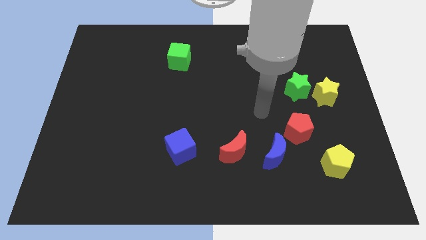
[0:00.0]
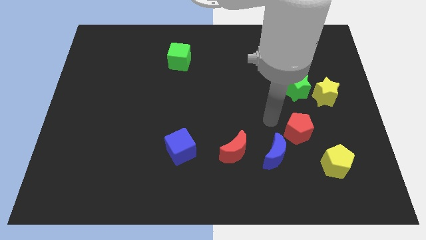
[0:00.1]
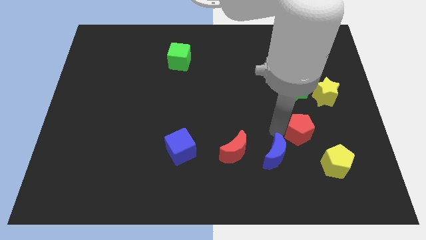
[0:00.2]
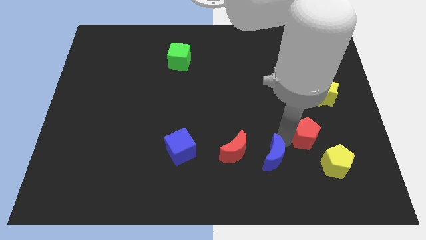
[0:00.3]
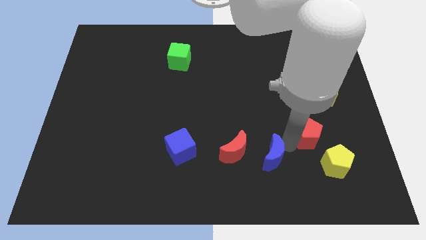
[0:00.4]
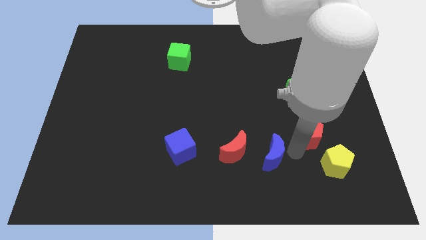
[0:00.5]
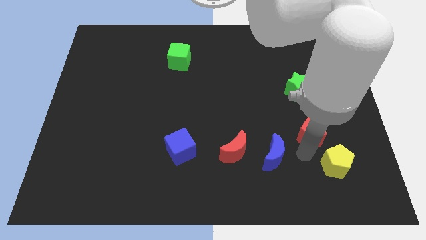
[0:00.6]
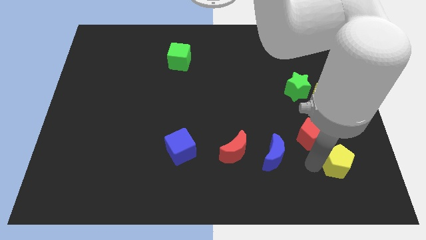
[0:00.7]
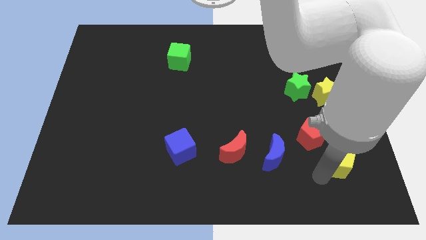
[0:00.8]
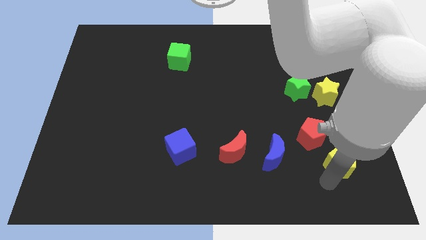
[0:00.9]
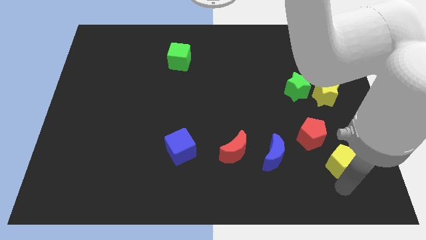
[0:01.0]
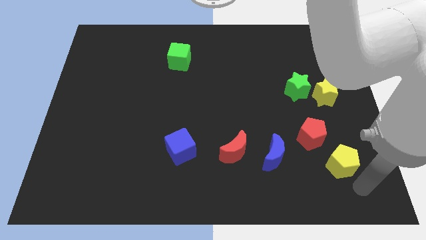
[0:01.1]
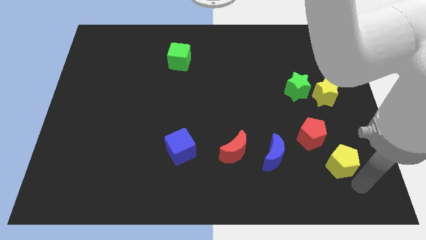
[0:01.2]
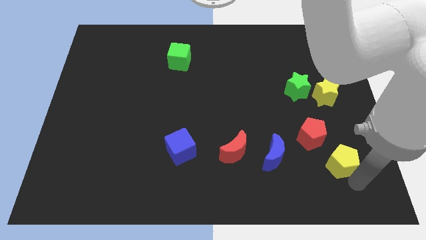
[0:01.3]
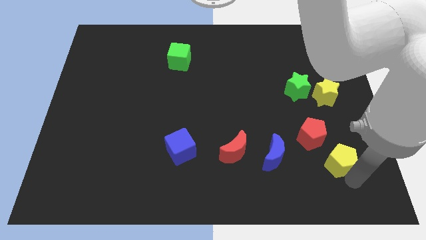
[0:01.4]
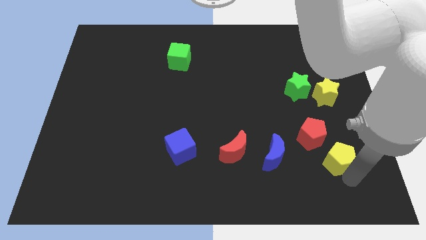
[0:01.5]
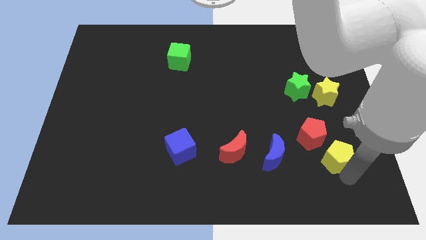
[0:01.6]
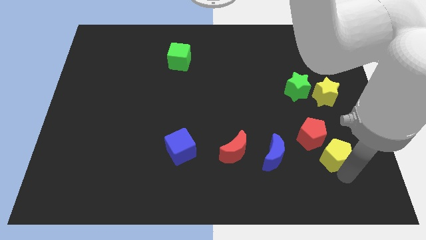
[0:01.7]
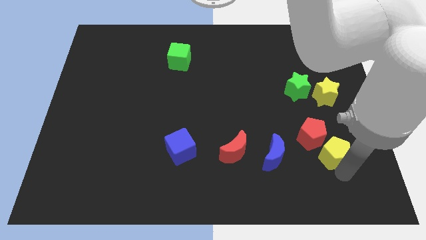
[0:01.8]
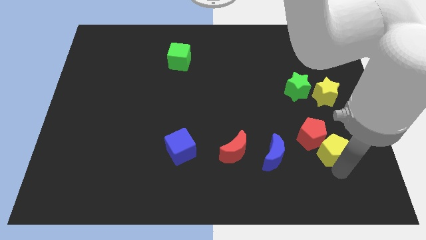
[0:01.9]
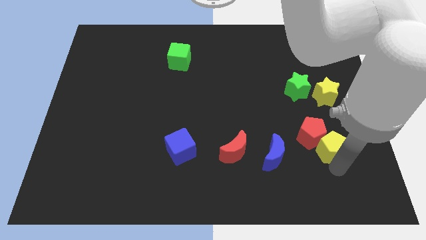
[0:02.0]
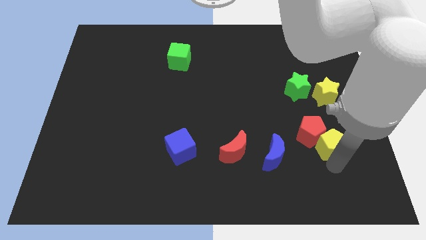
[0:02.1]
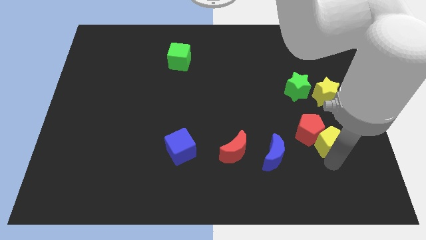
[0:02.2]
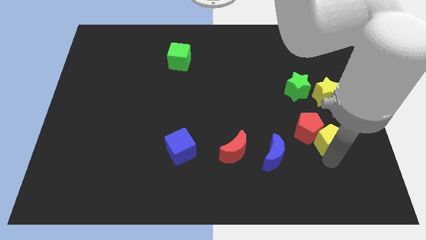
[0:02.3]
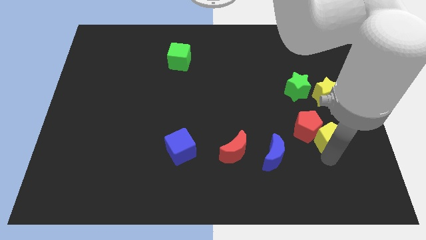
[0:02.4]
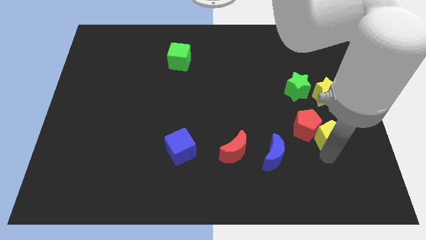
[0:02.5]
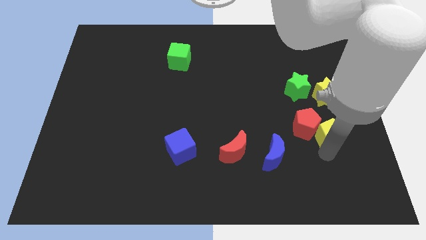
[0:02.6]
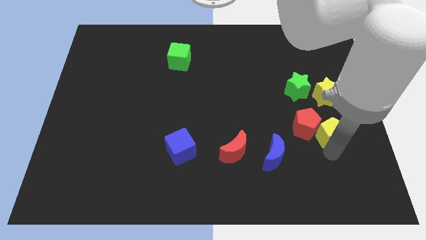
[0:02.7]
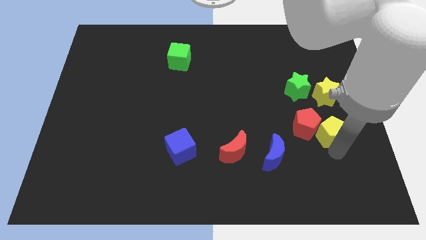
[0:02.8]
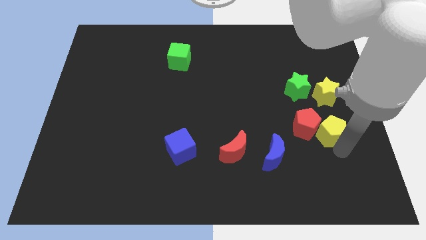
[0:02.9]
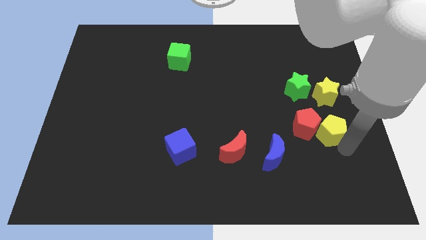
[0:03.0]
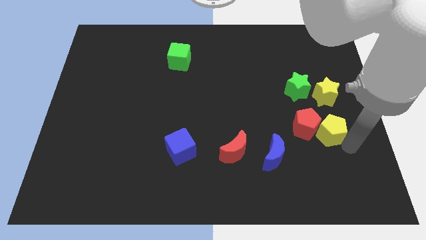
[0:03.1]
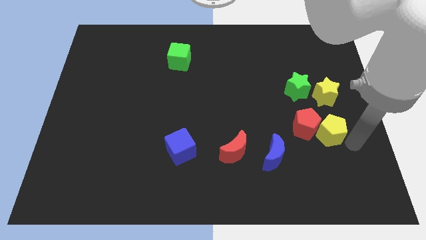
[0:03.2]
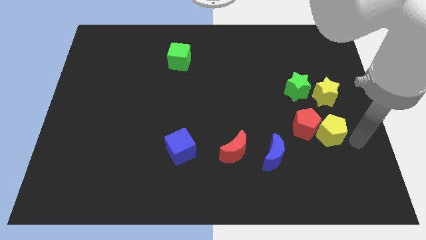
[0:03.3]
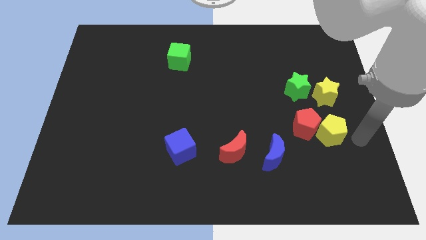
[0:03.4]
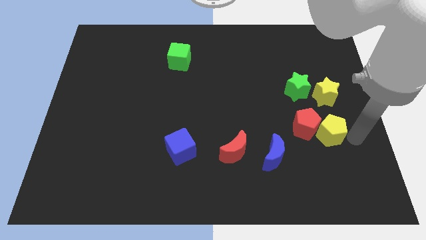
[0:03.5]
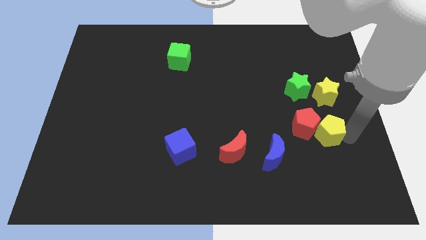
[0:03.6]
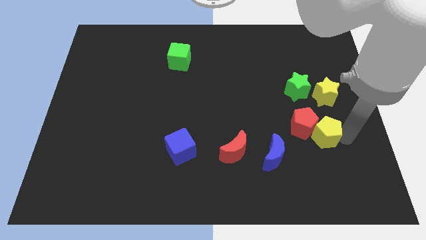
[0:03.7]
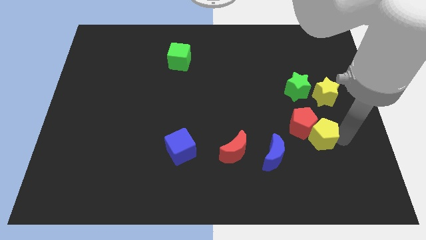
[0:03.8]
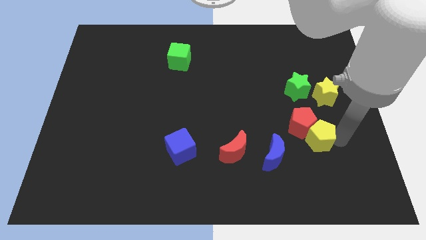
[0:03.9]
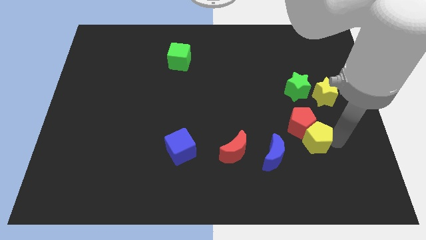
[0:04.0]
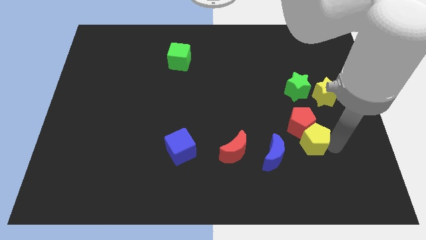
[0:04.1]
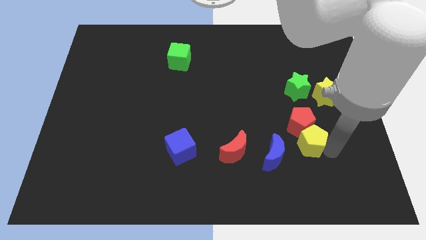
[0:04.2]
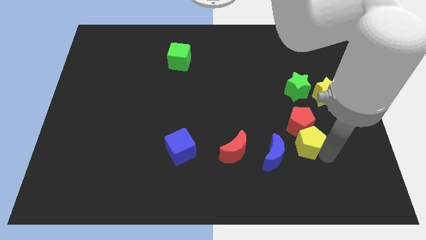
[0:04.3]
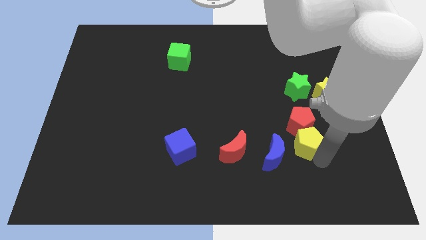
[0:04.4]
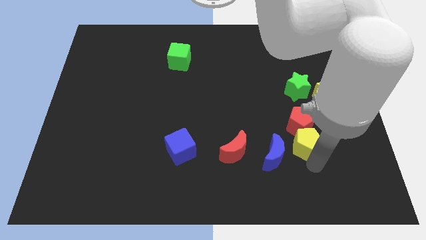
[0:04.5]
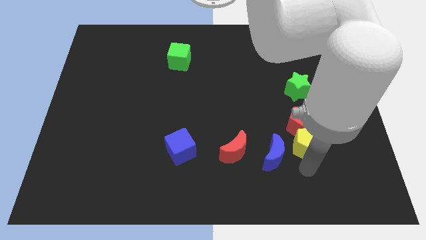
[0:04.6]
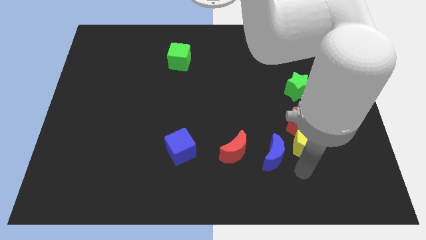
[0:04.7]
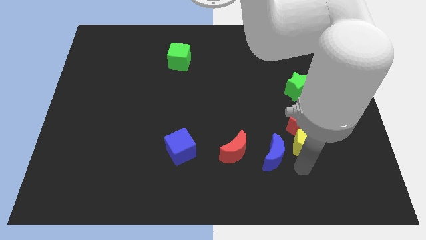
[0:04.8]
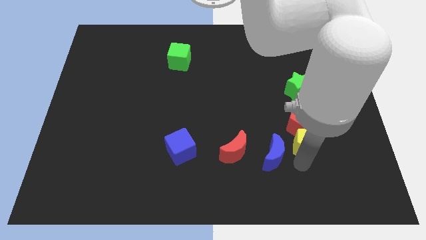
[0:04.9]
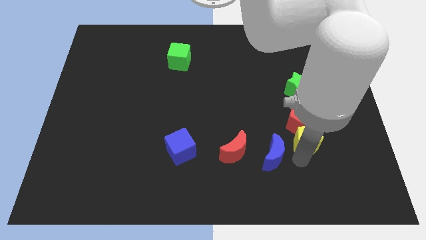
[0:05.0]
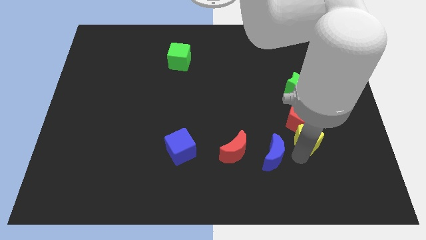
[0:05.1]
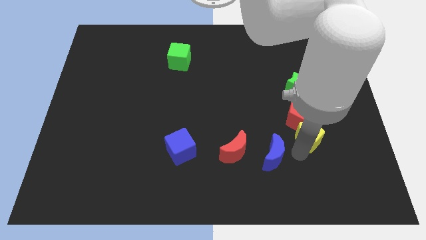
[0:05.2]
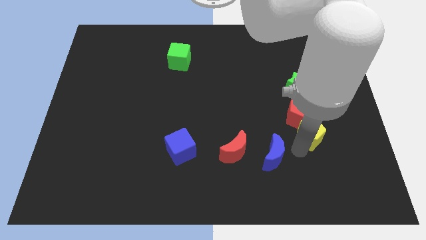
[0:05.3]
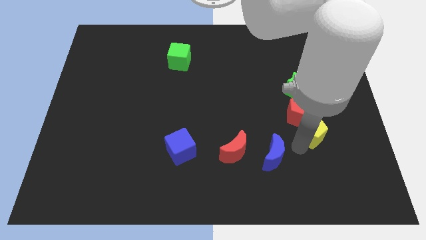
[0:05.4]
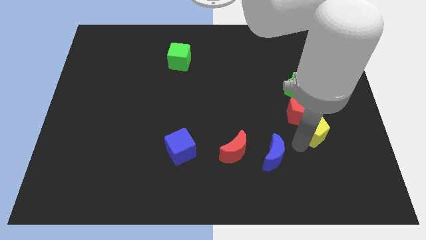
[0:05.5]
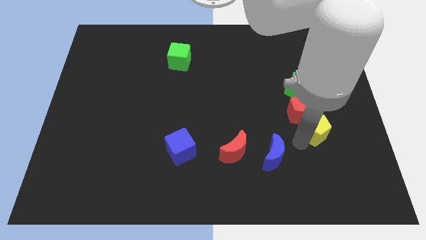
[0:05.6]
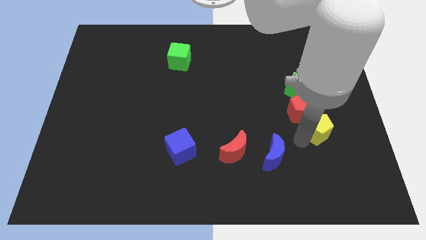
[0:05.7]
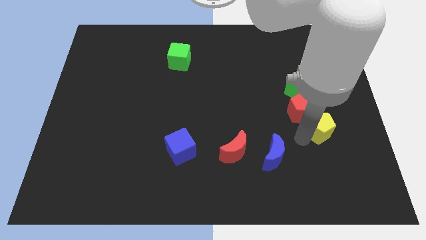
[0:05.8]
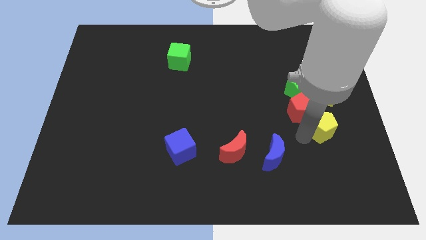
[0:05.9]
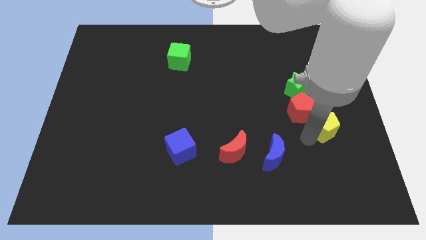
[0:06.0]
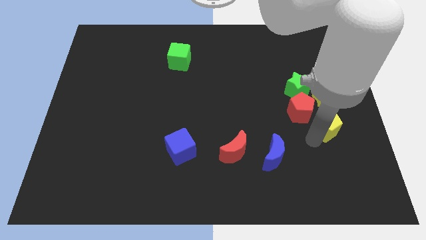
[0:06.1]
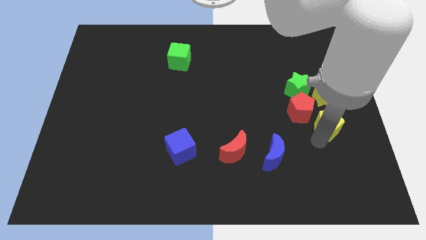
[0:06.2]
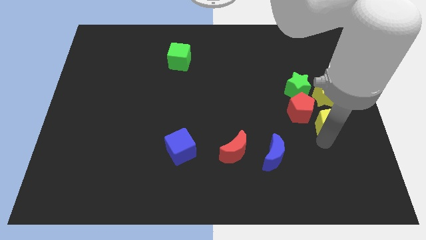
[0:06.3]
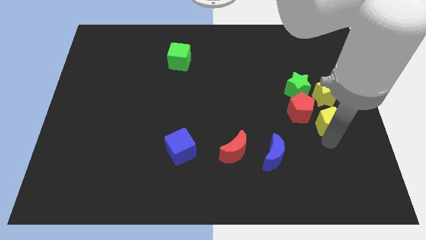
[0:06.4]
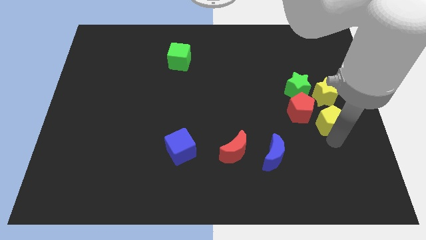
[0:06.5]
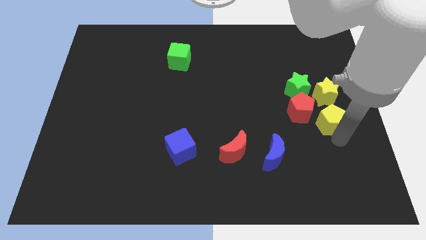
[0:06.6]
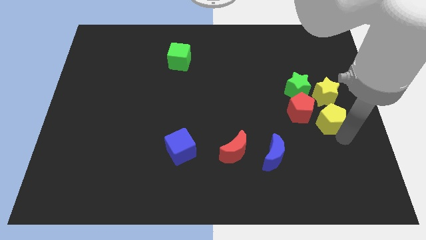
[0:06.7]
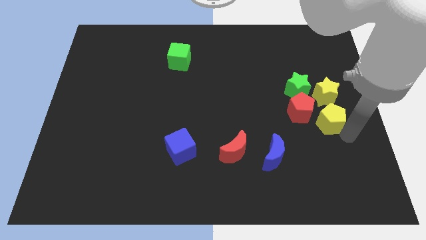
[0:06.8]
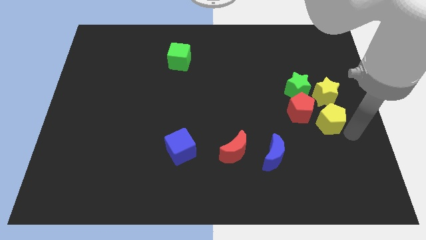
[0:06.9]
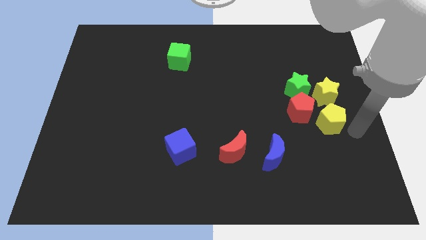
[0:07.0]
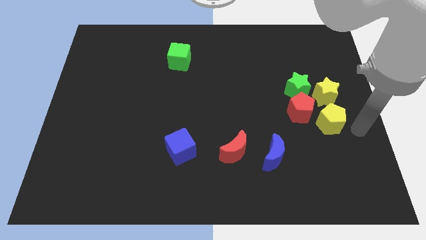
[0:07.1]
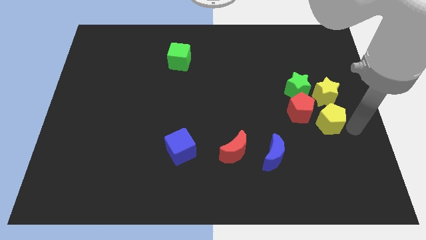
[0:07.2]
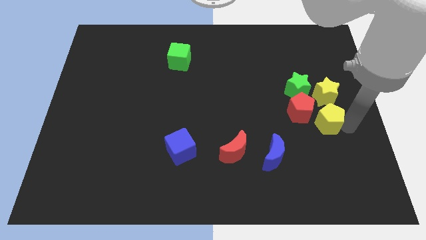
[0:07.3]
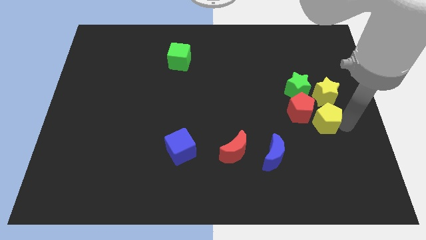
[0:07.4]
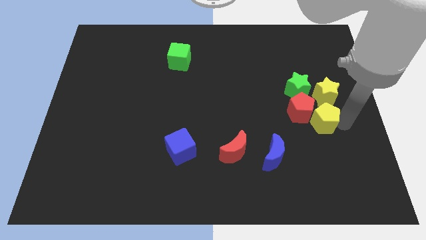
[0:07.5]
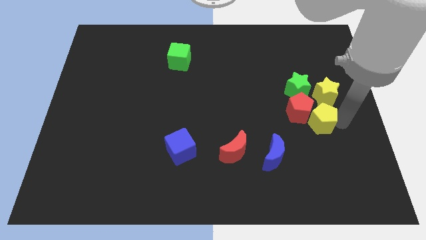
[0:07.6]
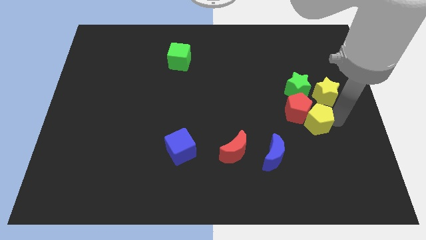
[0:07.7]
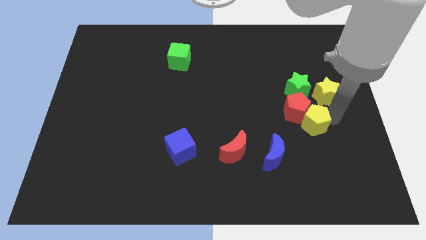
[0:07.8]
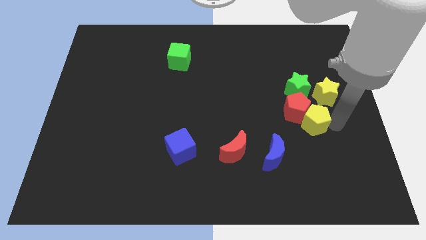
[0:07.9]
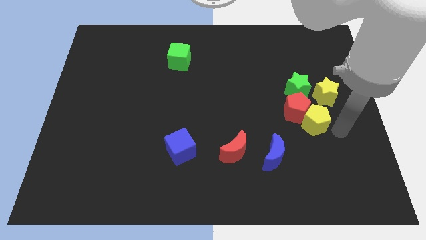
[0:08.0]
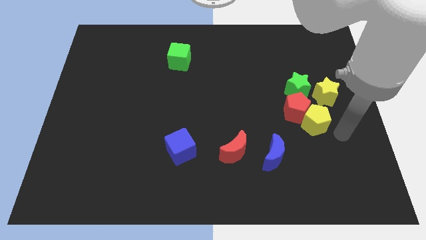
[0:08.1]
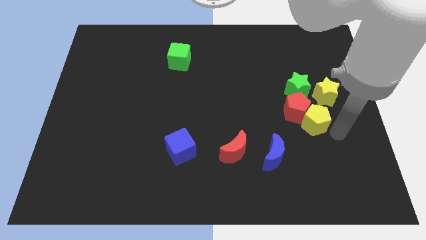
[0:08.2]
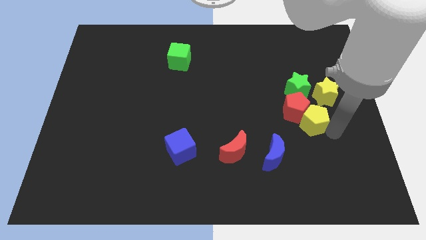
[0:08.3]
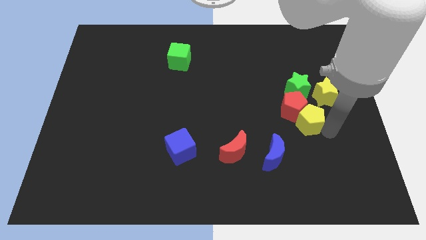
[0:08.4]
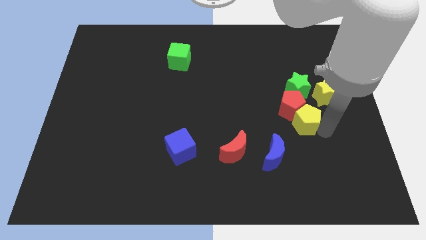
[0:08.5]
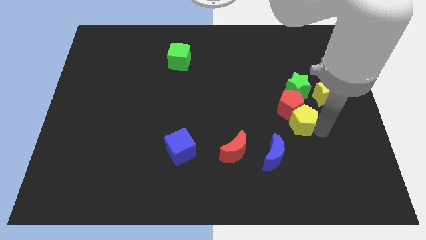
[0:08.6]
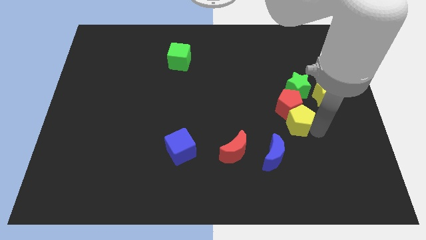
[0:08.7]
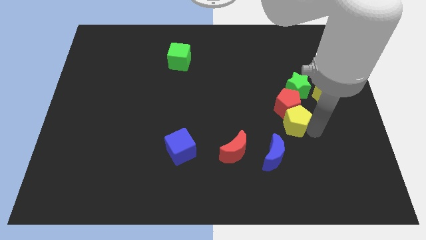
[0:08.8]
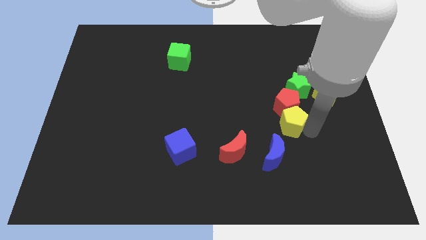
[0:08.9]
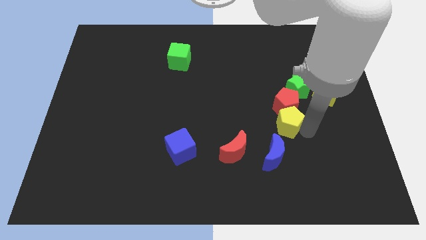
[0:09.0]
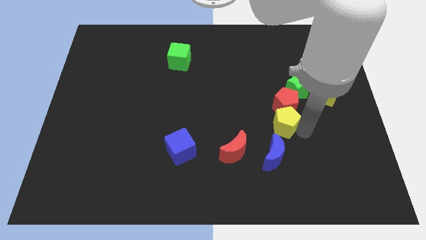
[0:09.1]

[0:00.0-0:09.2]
slide the yellow pentagon diagonally down and to the left of the green star
